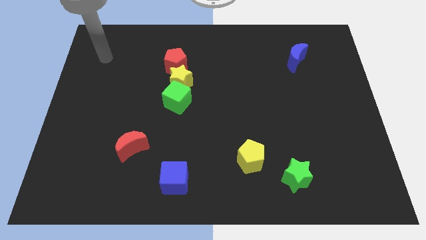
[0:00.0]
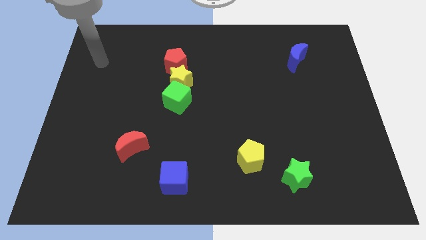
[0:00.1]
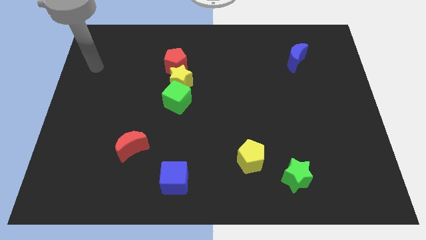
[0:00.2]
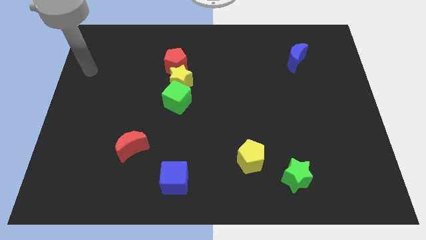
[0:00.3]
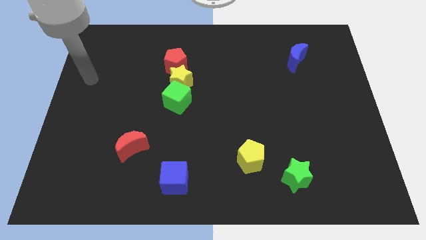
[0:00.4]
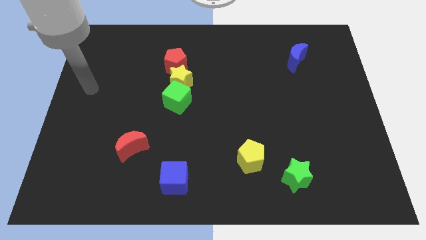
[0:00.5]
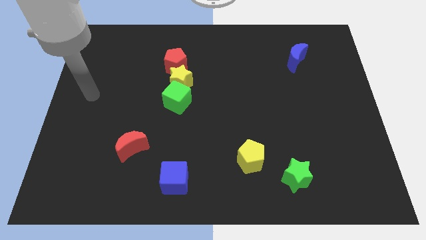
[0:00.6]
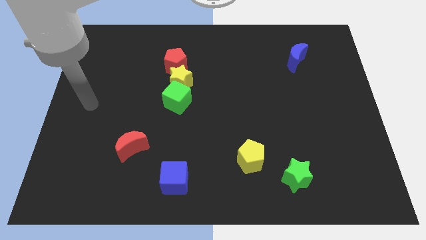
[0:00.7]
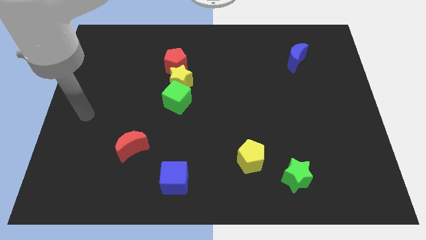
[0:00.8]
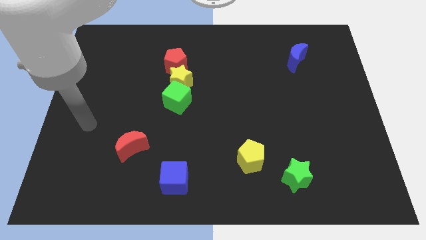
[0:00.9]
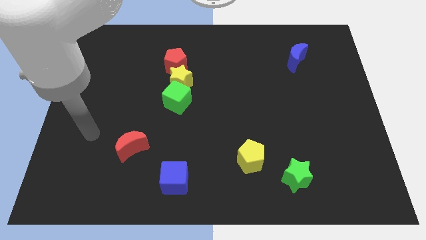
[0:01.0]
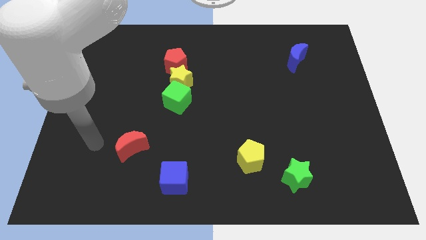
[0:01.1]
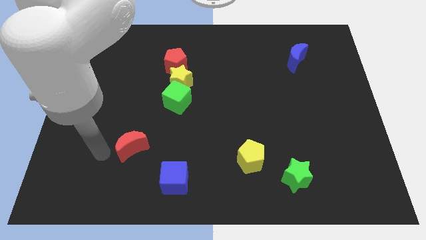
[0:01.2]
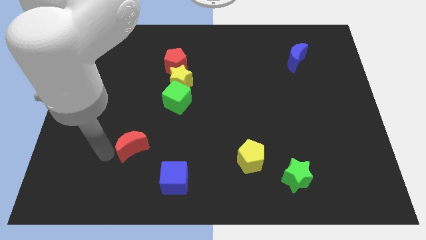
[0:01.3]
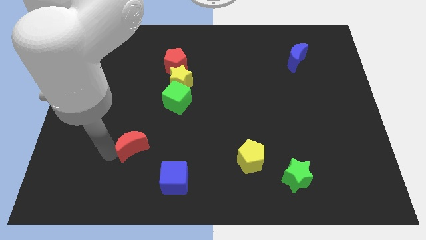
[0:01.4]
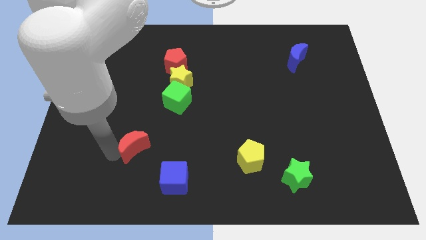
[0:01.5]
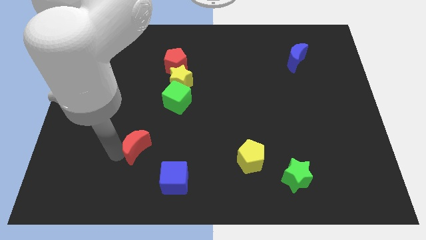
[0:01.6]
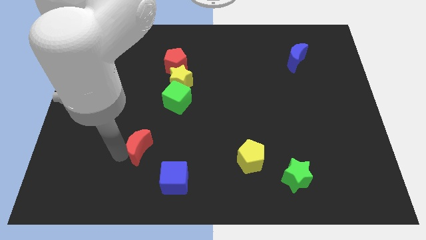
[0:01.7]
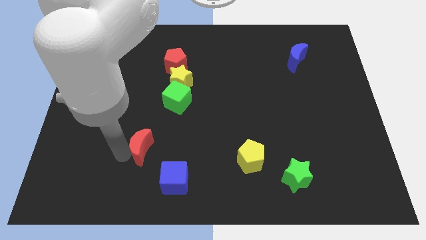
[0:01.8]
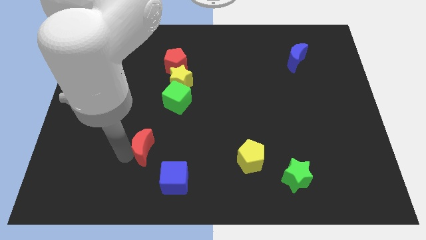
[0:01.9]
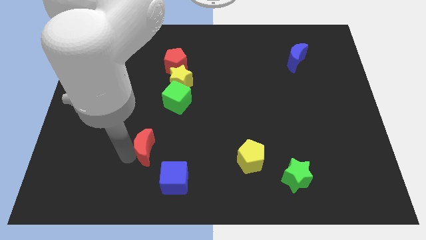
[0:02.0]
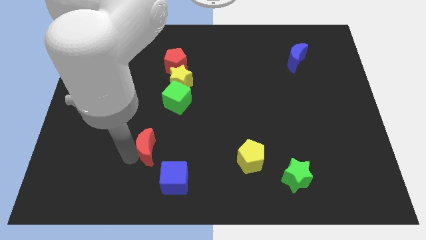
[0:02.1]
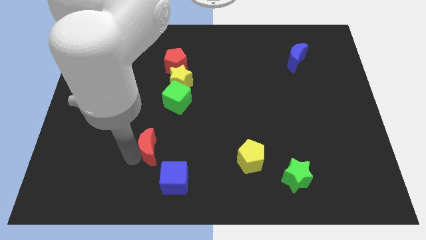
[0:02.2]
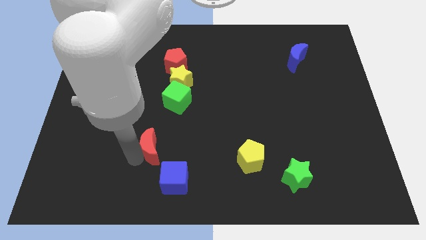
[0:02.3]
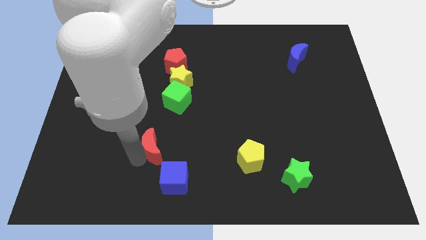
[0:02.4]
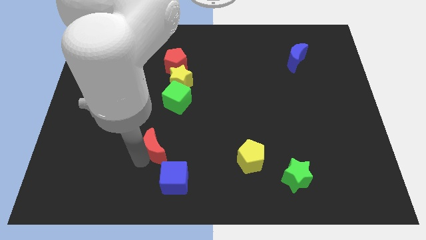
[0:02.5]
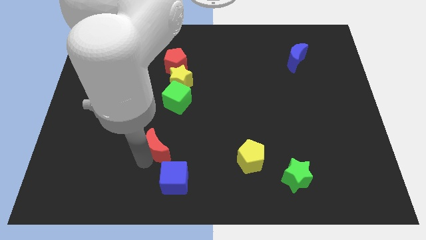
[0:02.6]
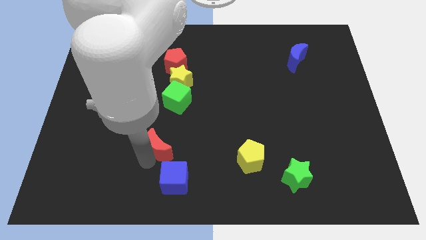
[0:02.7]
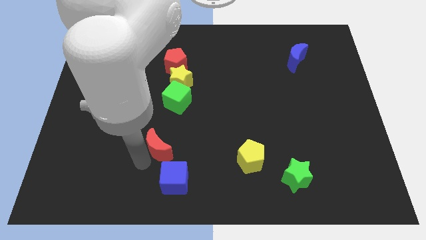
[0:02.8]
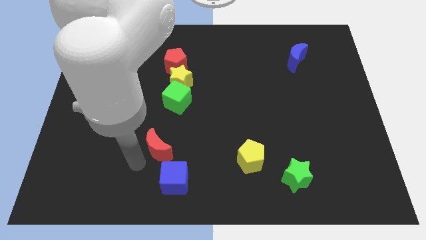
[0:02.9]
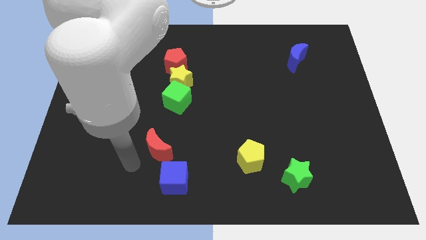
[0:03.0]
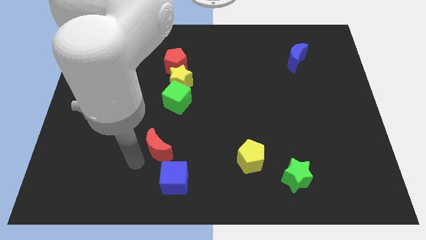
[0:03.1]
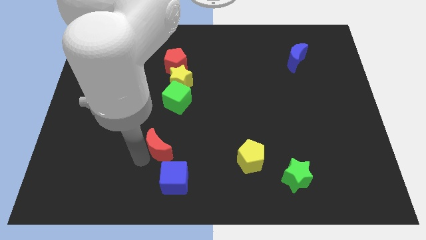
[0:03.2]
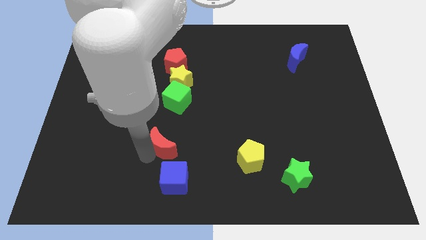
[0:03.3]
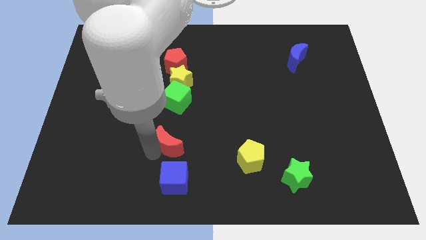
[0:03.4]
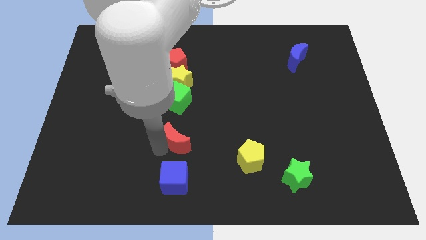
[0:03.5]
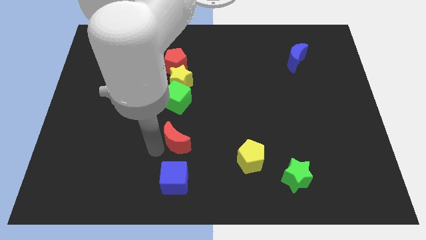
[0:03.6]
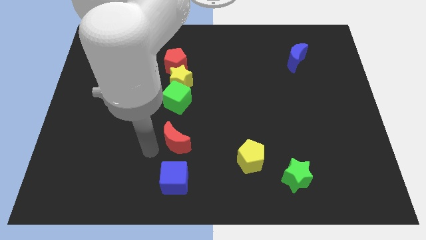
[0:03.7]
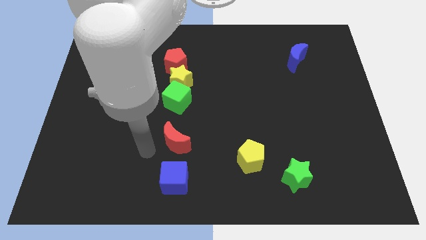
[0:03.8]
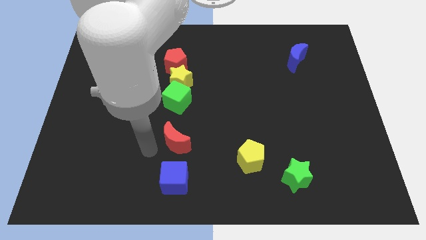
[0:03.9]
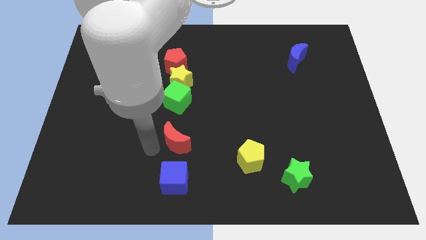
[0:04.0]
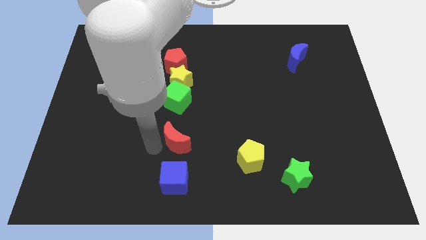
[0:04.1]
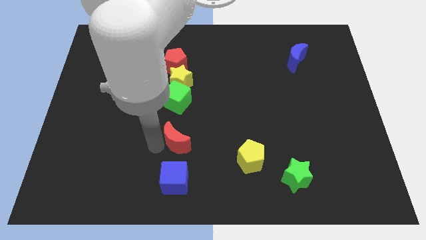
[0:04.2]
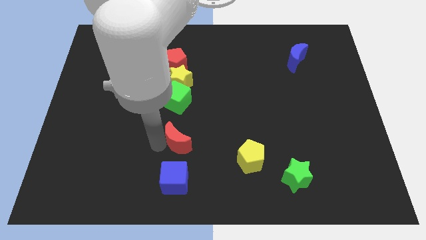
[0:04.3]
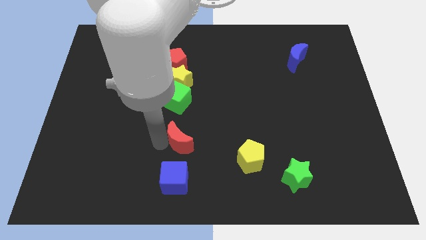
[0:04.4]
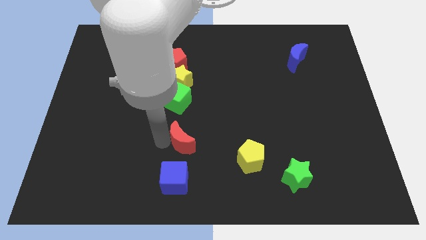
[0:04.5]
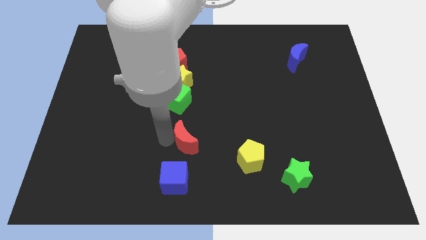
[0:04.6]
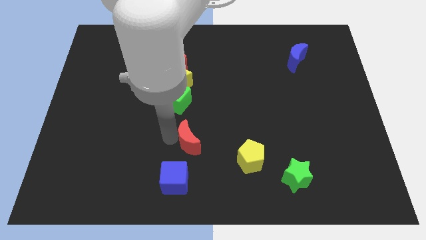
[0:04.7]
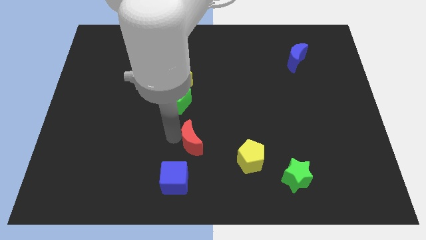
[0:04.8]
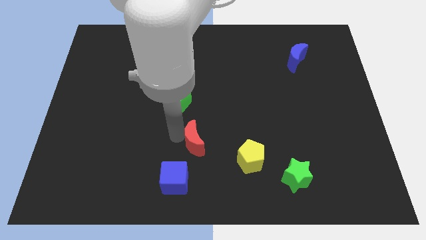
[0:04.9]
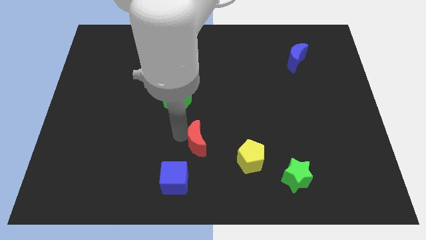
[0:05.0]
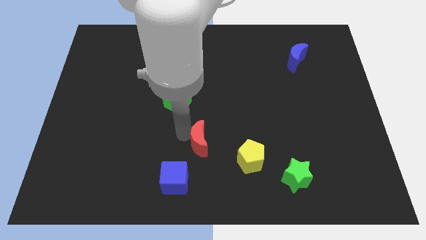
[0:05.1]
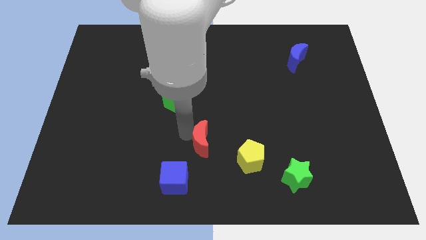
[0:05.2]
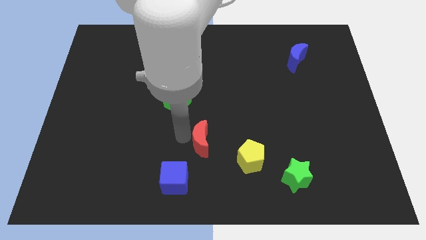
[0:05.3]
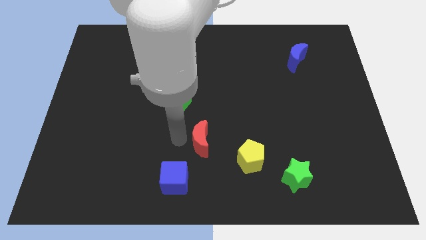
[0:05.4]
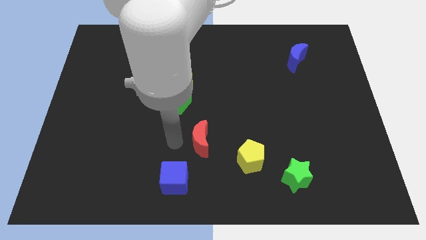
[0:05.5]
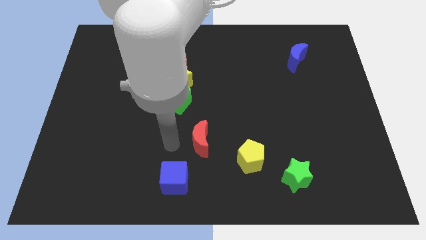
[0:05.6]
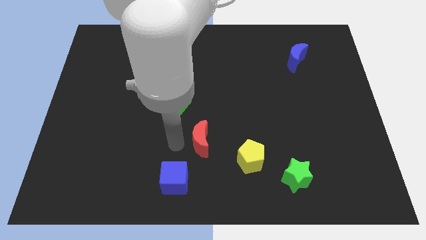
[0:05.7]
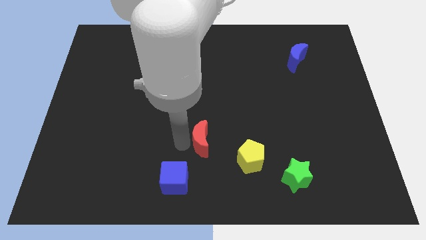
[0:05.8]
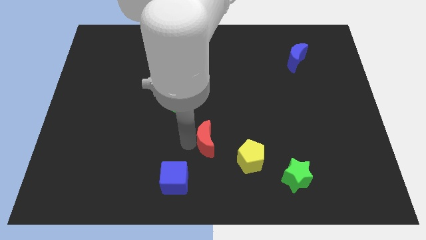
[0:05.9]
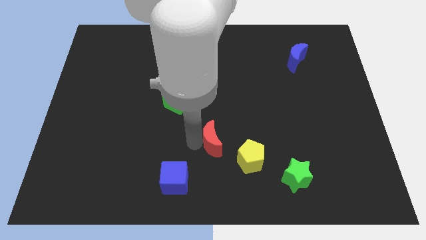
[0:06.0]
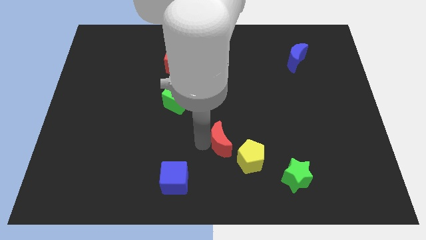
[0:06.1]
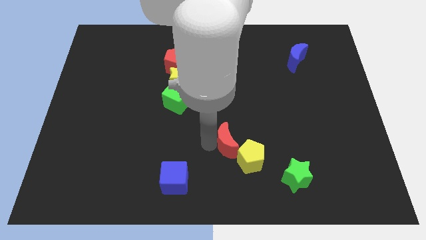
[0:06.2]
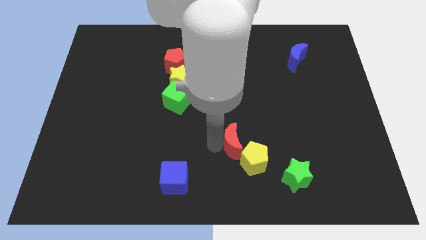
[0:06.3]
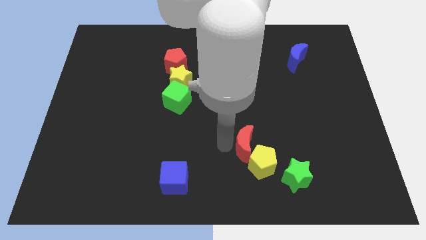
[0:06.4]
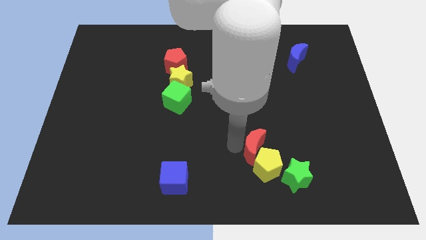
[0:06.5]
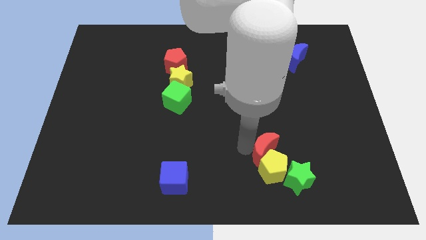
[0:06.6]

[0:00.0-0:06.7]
put the red moon diagonally up and to the right of the yellow pentagon

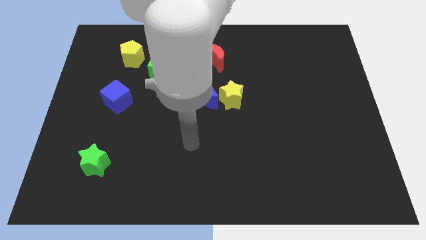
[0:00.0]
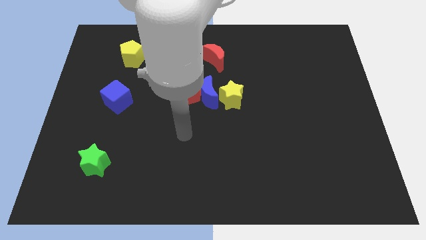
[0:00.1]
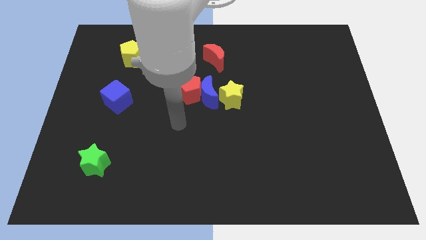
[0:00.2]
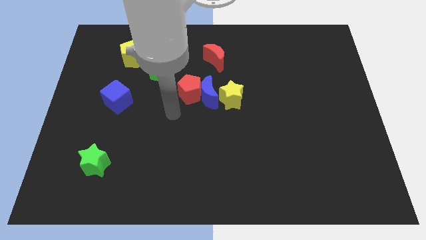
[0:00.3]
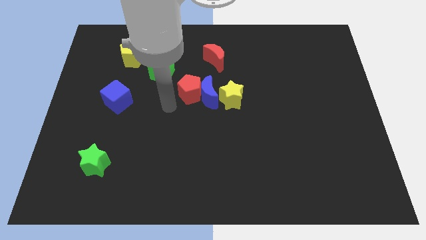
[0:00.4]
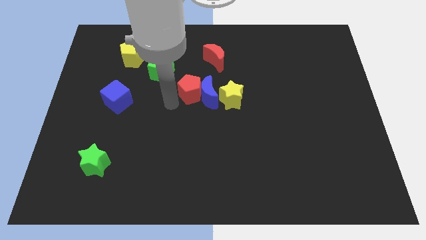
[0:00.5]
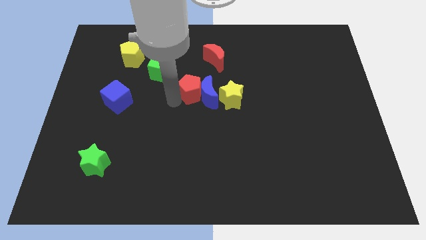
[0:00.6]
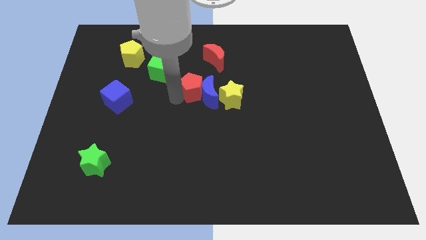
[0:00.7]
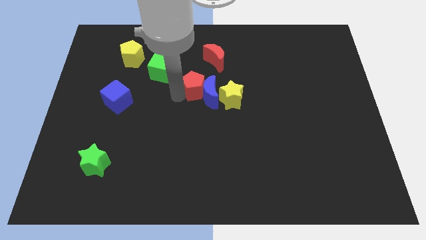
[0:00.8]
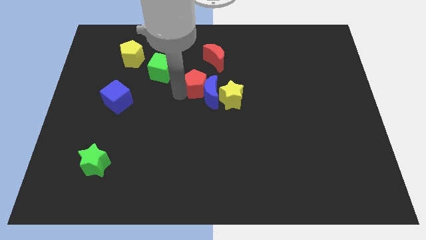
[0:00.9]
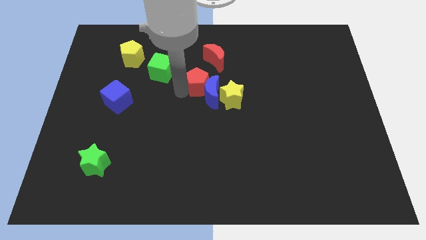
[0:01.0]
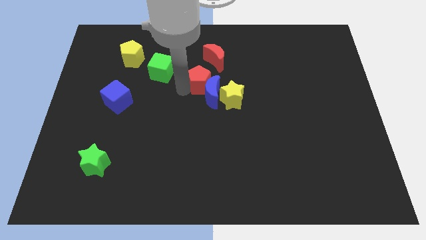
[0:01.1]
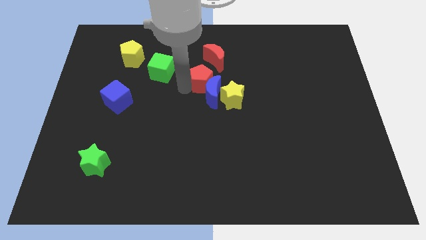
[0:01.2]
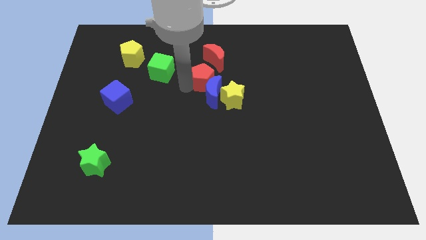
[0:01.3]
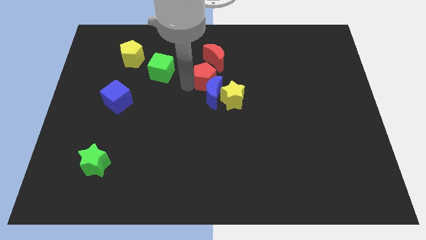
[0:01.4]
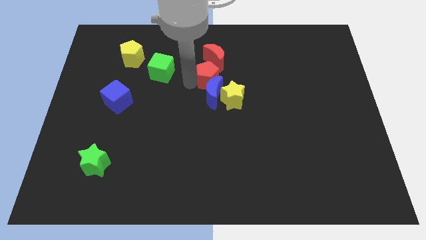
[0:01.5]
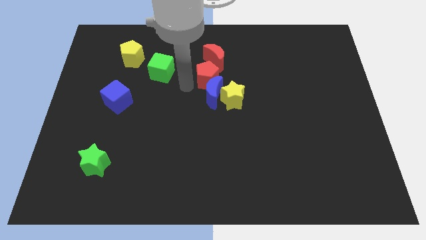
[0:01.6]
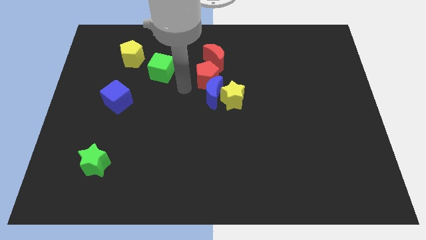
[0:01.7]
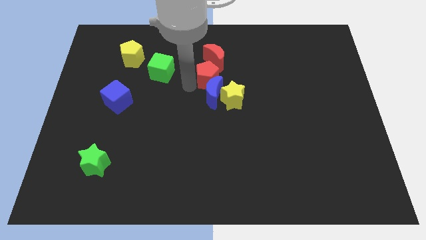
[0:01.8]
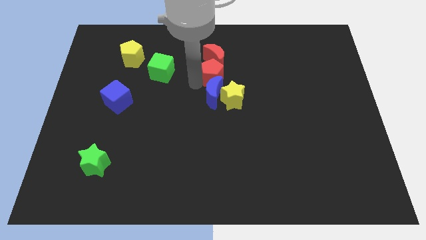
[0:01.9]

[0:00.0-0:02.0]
push the red pentagon to the top of the yellow star
